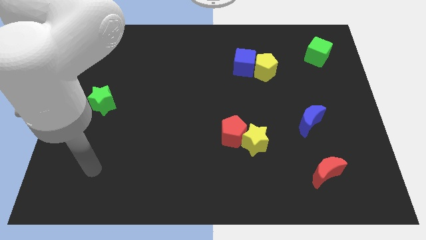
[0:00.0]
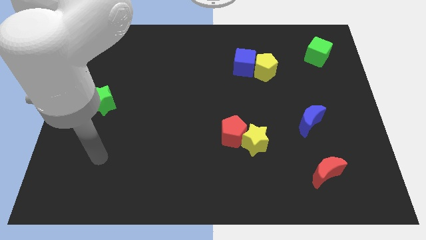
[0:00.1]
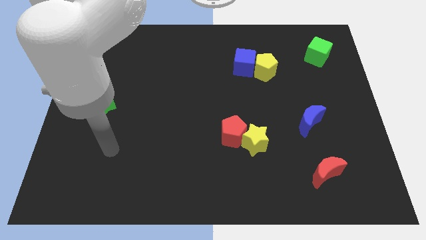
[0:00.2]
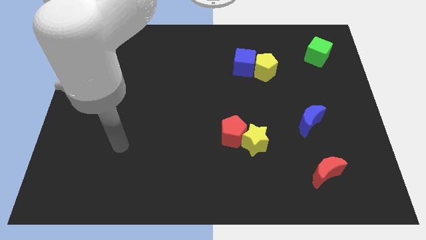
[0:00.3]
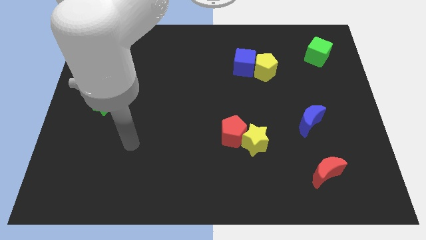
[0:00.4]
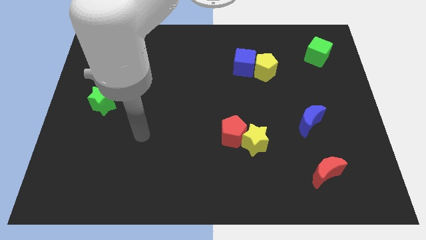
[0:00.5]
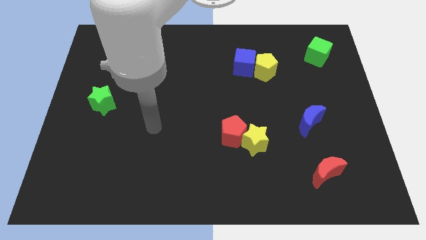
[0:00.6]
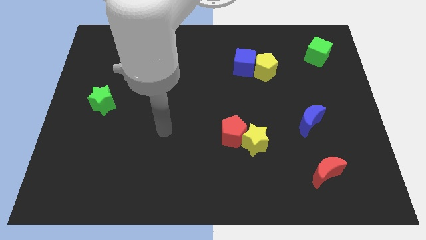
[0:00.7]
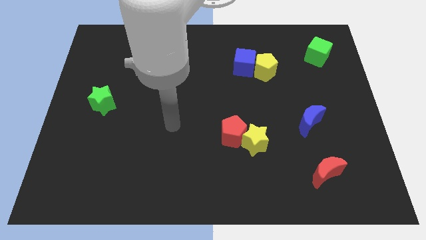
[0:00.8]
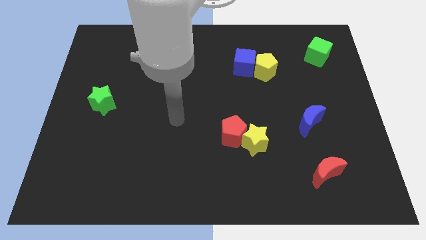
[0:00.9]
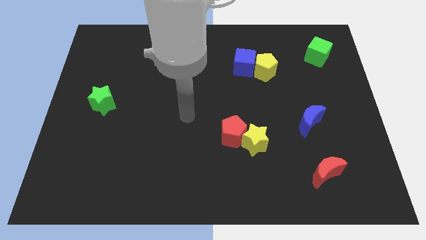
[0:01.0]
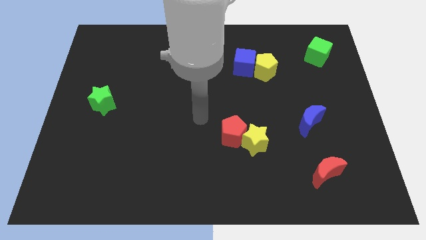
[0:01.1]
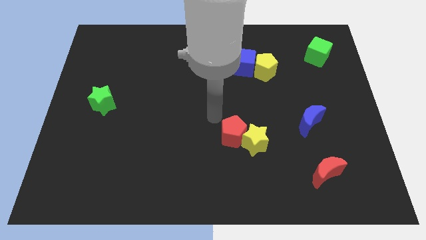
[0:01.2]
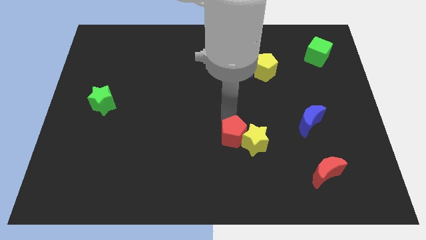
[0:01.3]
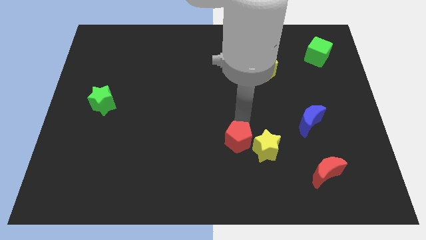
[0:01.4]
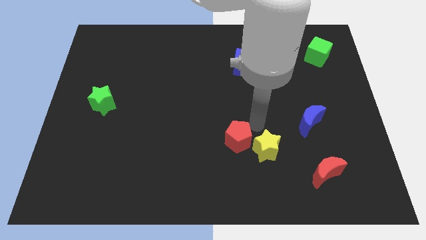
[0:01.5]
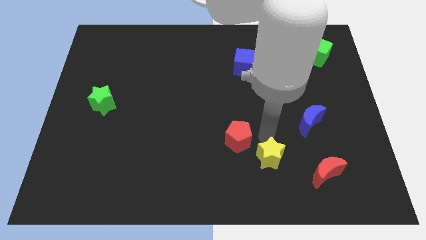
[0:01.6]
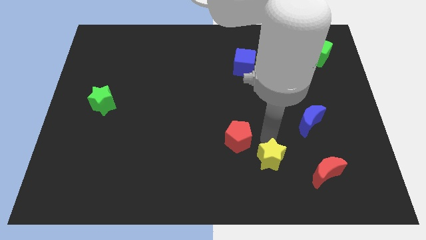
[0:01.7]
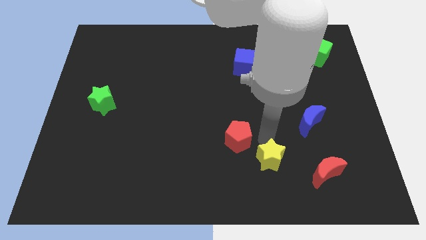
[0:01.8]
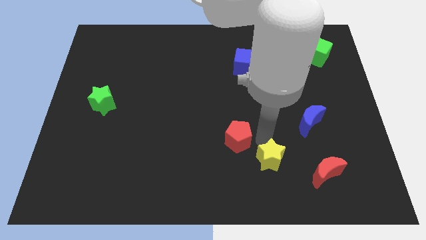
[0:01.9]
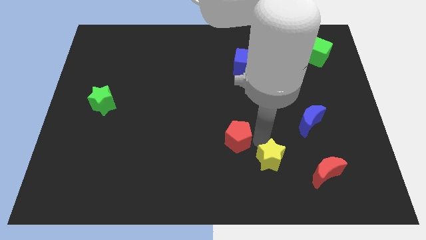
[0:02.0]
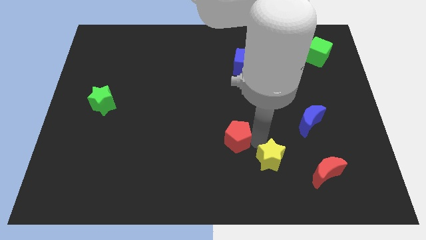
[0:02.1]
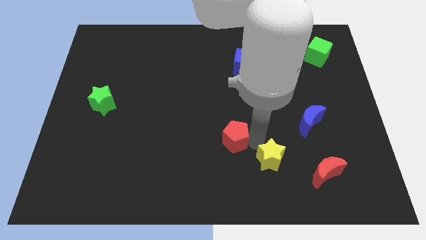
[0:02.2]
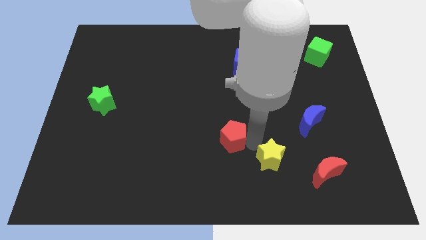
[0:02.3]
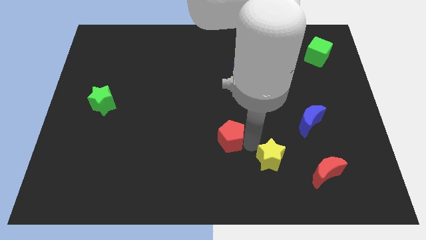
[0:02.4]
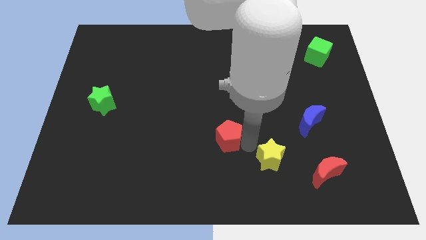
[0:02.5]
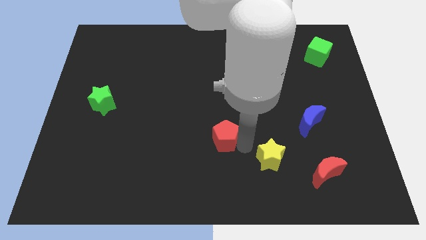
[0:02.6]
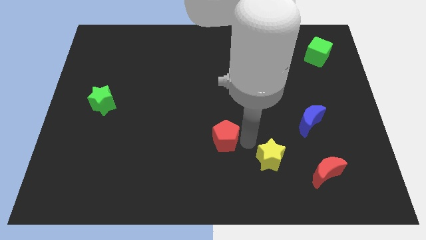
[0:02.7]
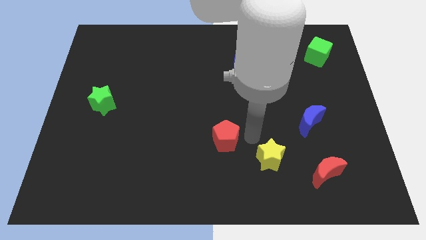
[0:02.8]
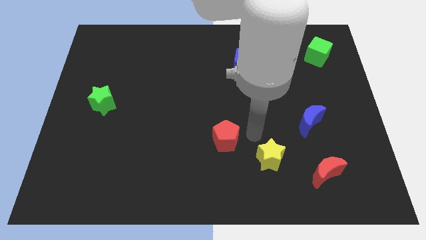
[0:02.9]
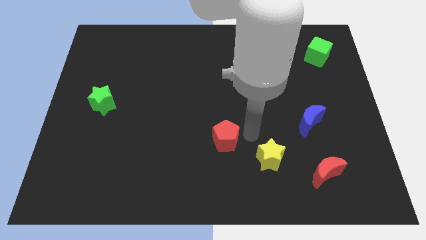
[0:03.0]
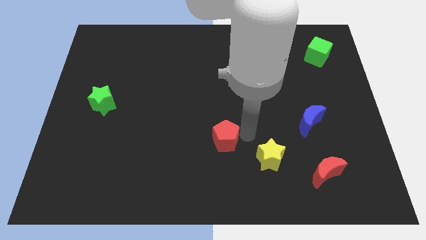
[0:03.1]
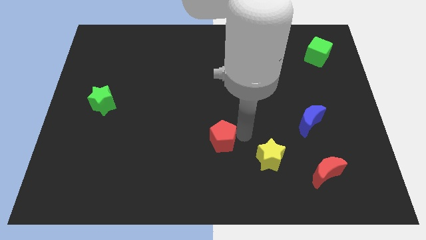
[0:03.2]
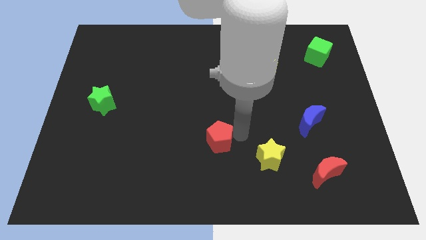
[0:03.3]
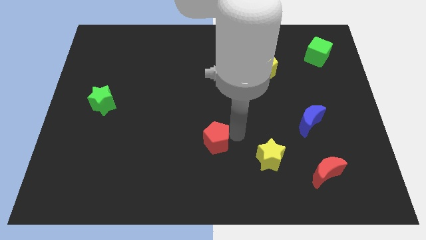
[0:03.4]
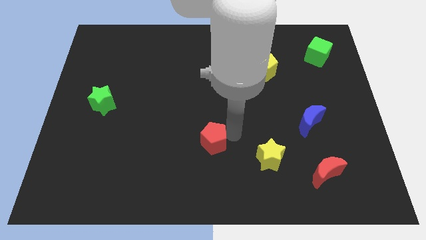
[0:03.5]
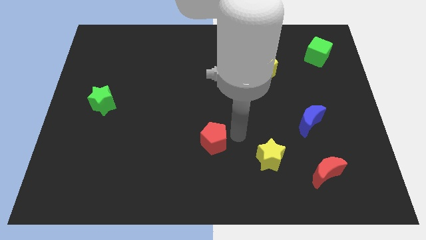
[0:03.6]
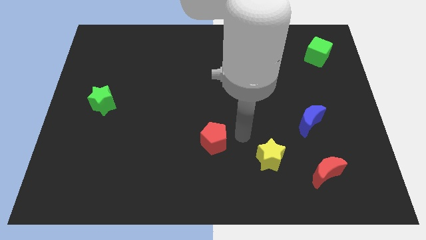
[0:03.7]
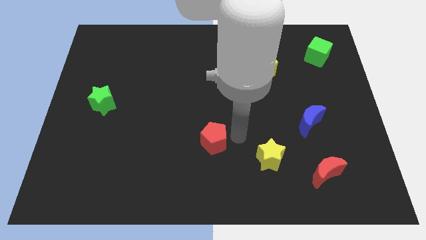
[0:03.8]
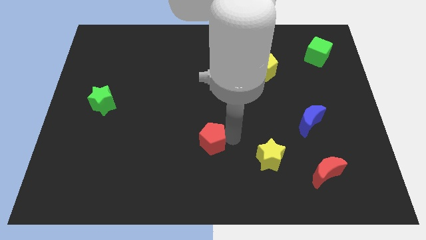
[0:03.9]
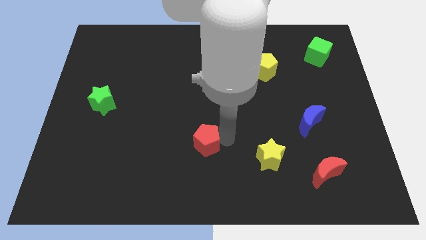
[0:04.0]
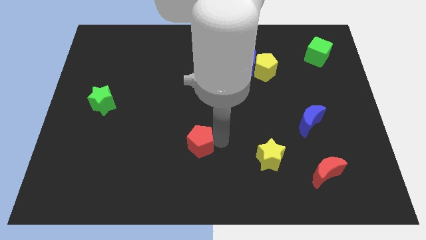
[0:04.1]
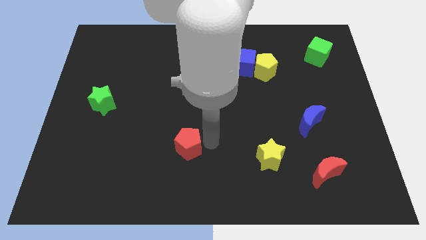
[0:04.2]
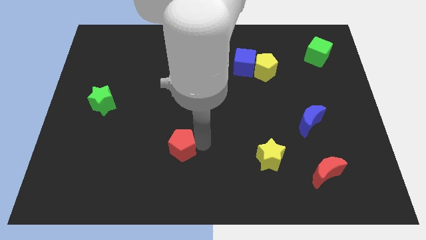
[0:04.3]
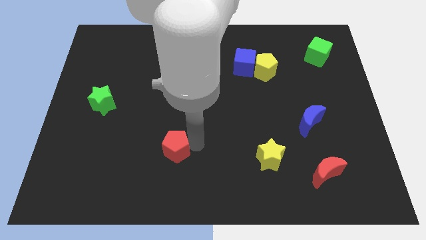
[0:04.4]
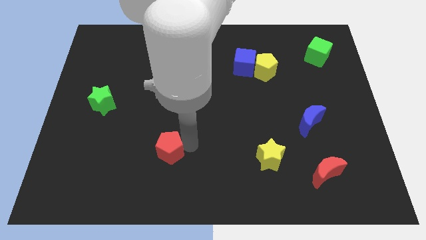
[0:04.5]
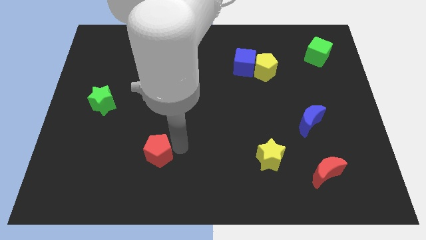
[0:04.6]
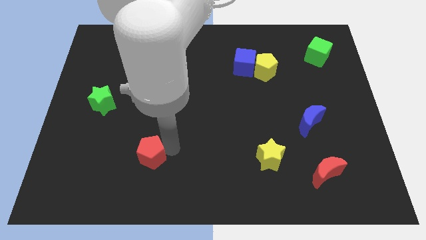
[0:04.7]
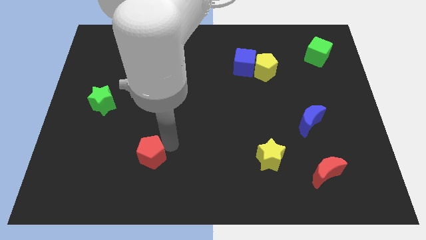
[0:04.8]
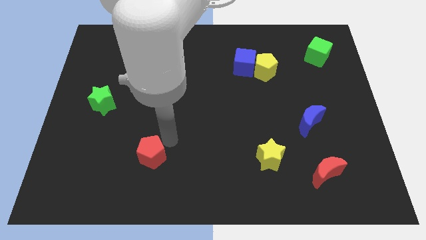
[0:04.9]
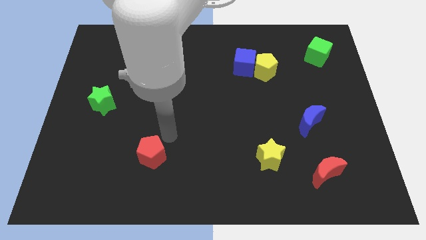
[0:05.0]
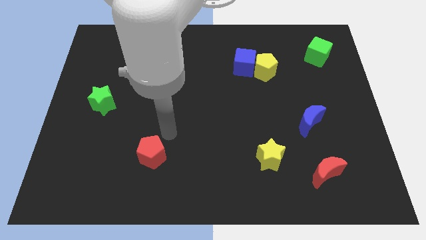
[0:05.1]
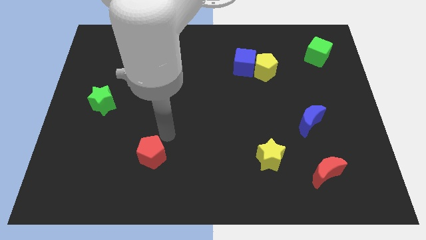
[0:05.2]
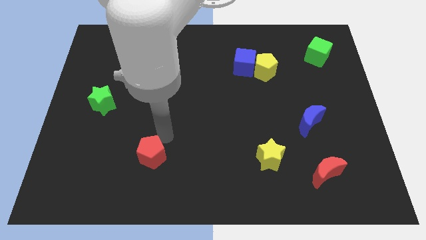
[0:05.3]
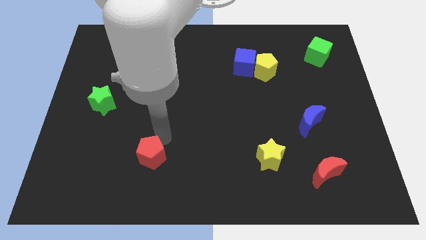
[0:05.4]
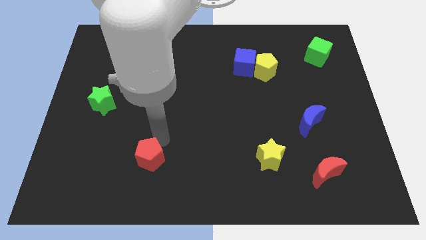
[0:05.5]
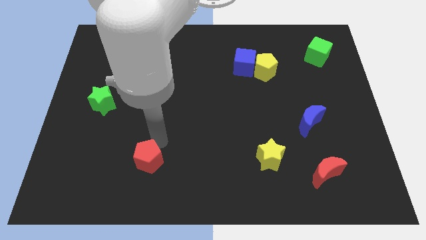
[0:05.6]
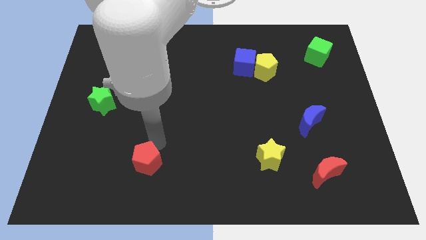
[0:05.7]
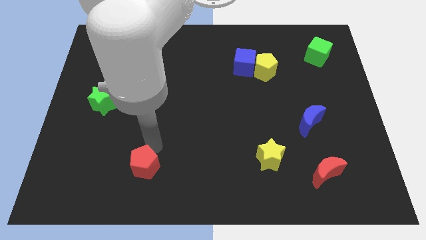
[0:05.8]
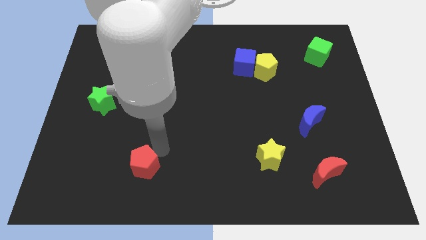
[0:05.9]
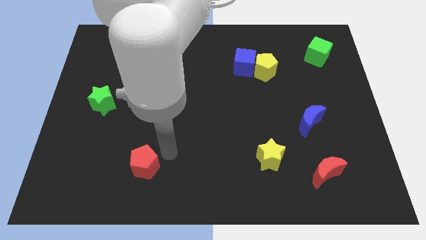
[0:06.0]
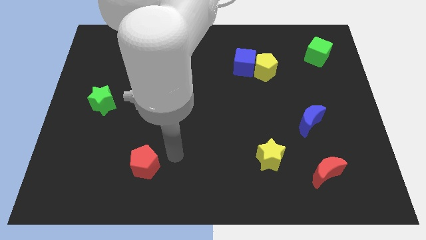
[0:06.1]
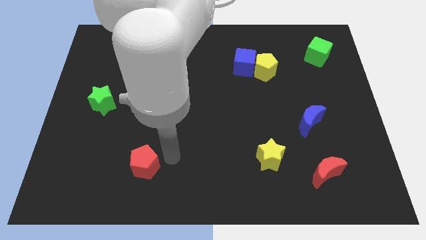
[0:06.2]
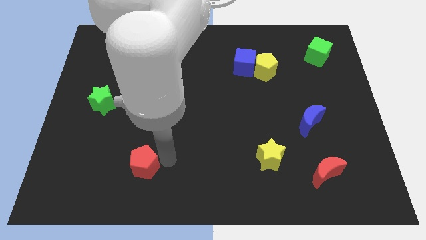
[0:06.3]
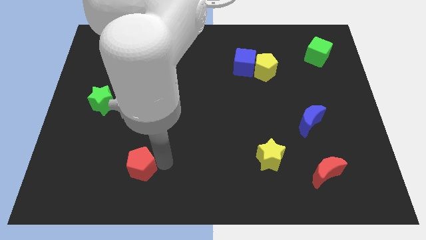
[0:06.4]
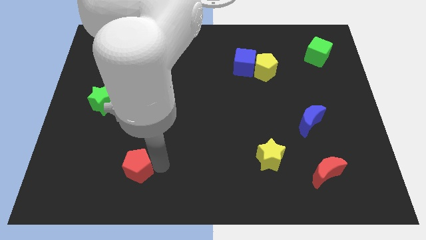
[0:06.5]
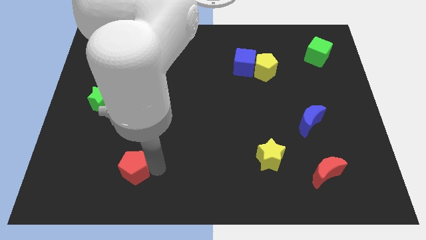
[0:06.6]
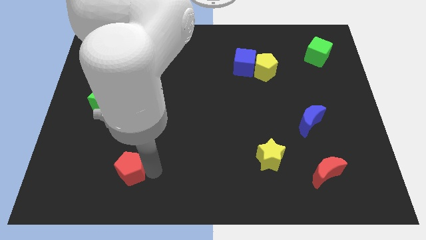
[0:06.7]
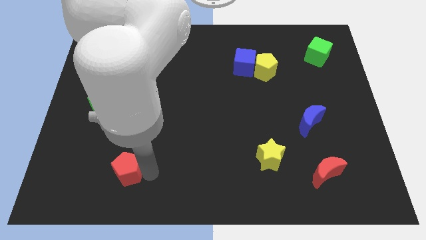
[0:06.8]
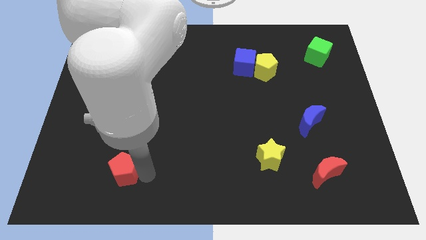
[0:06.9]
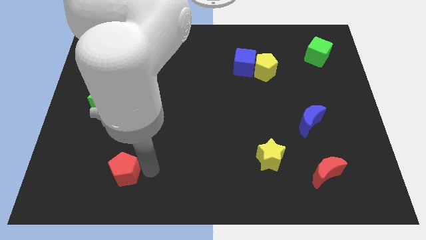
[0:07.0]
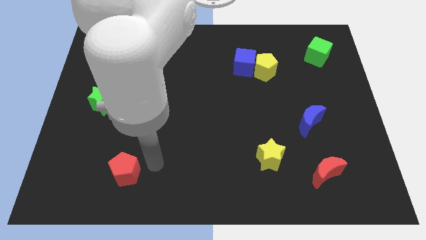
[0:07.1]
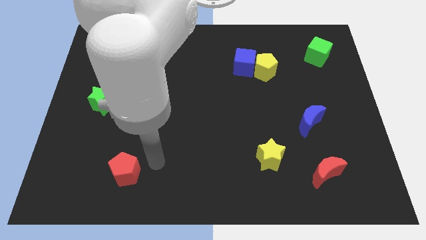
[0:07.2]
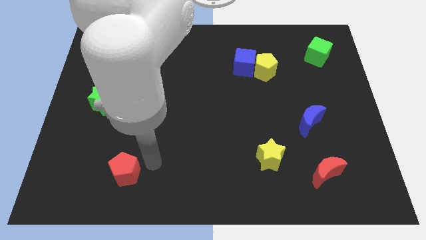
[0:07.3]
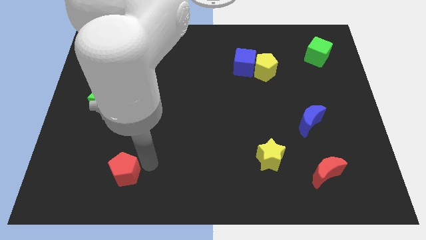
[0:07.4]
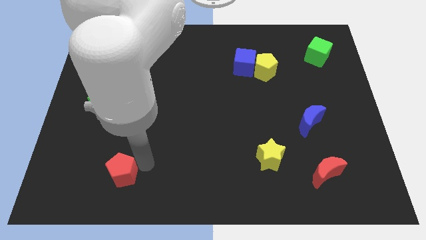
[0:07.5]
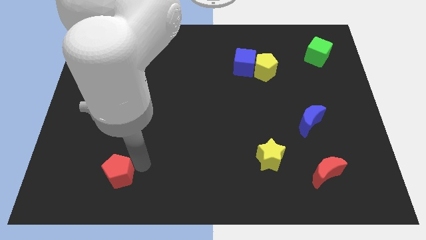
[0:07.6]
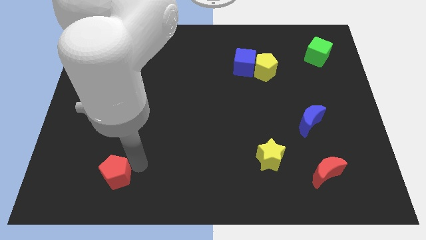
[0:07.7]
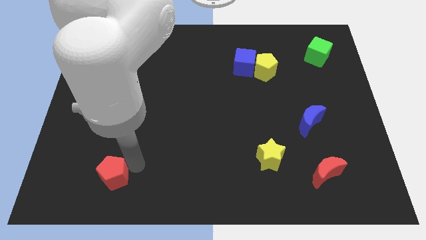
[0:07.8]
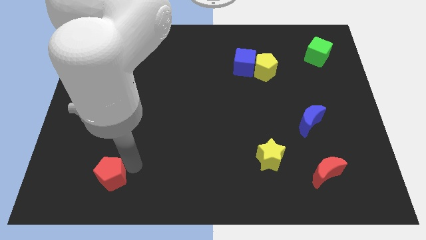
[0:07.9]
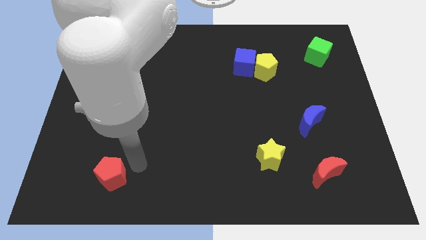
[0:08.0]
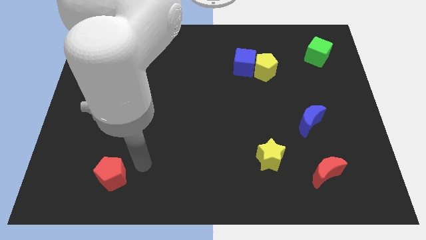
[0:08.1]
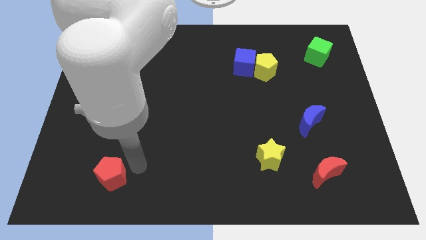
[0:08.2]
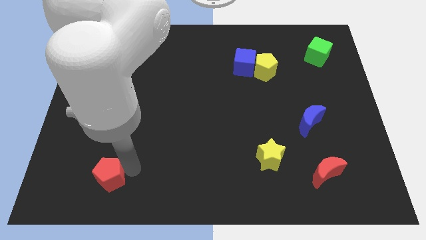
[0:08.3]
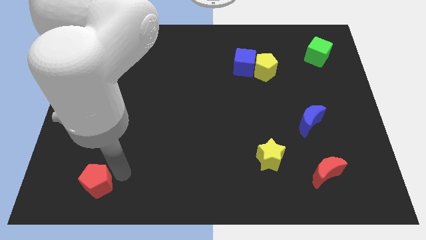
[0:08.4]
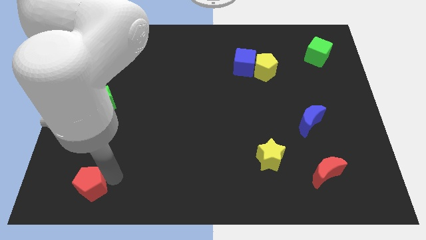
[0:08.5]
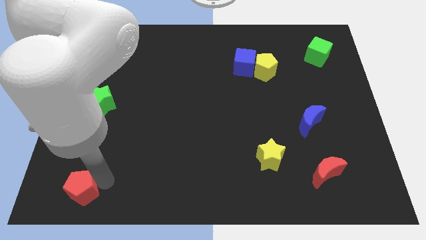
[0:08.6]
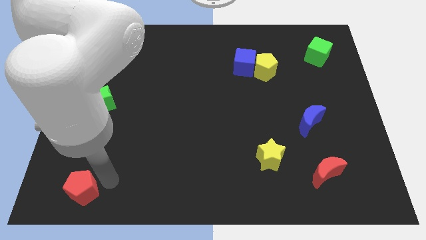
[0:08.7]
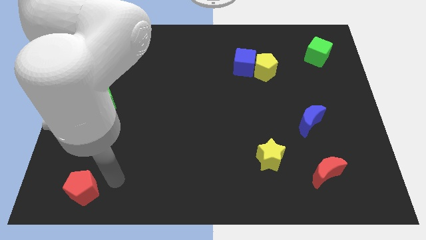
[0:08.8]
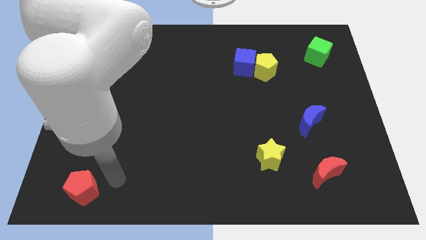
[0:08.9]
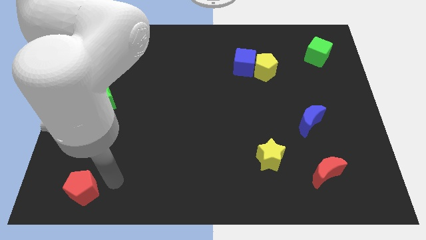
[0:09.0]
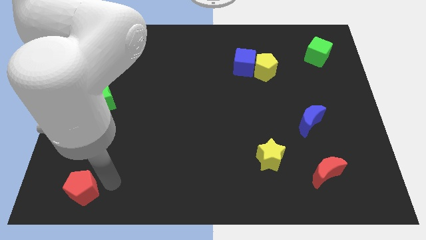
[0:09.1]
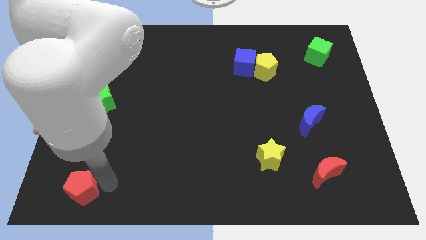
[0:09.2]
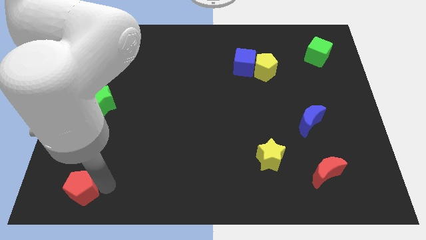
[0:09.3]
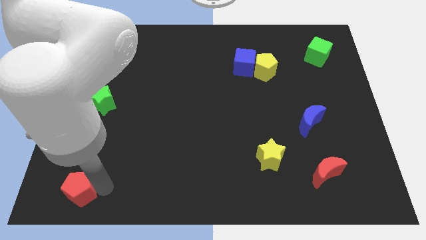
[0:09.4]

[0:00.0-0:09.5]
move the red pentagon to the bottom left corner
